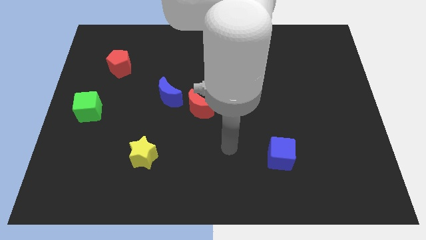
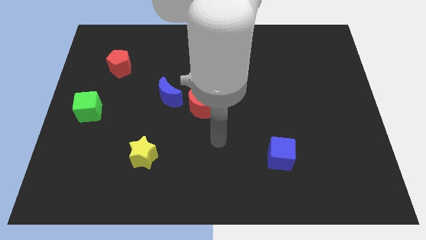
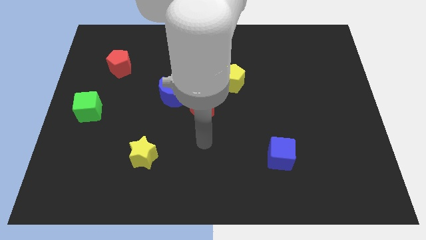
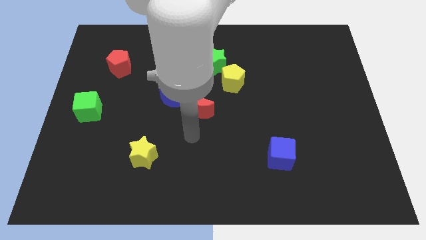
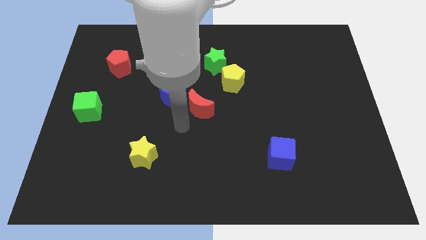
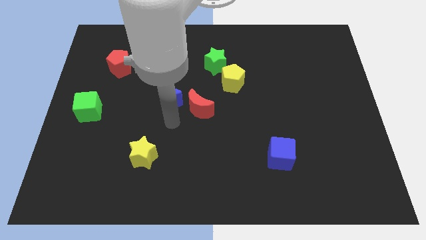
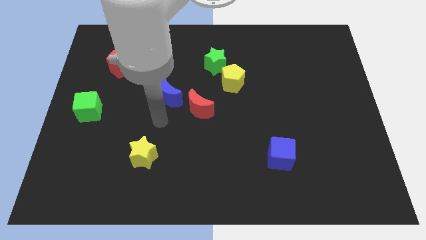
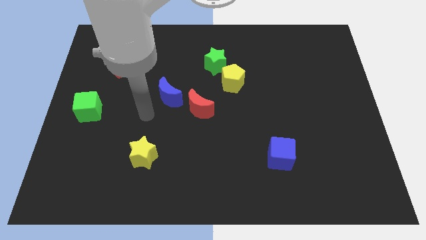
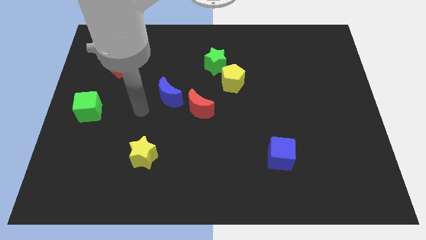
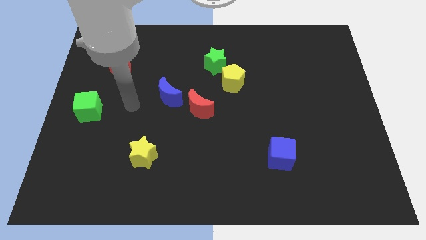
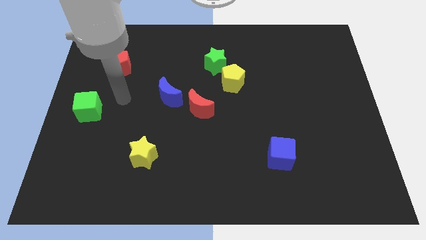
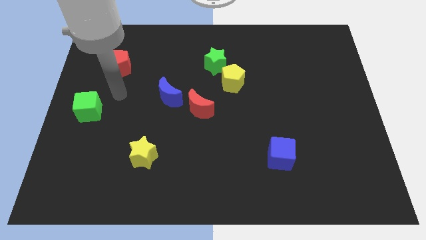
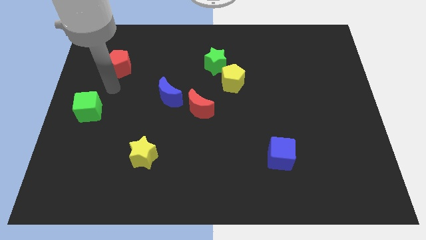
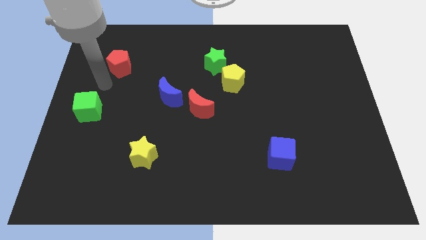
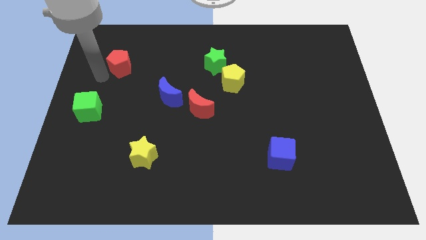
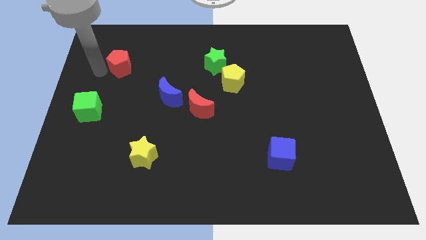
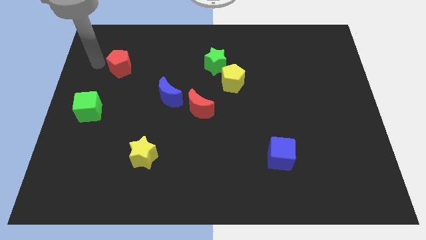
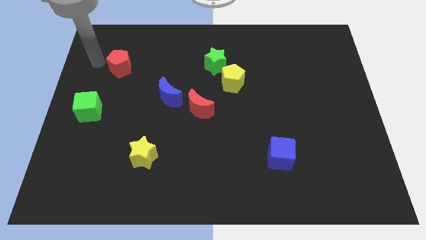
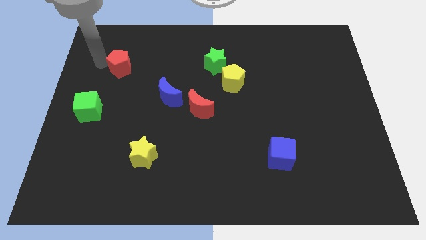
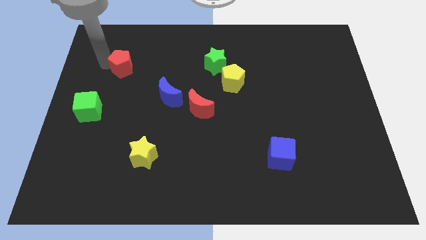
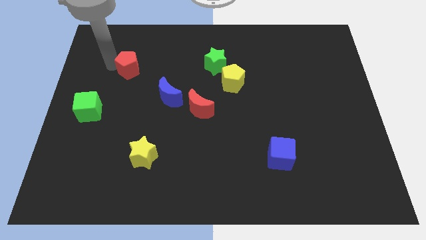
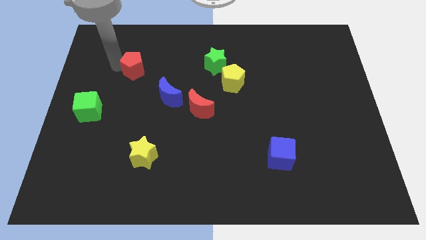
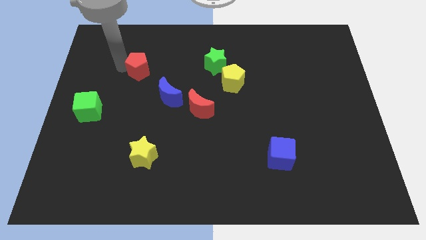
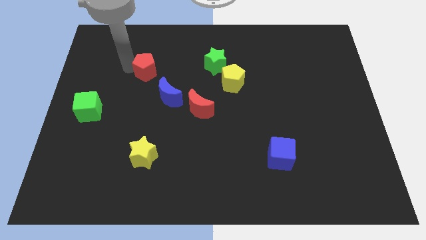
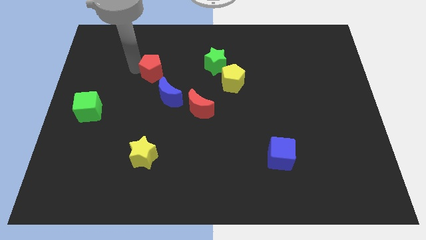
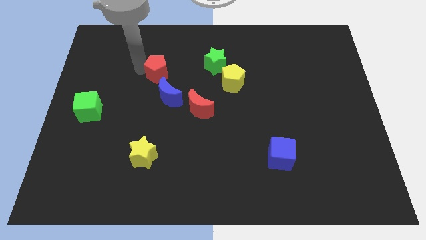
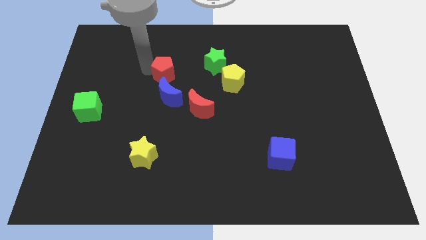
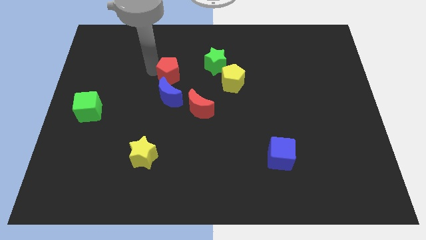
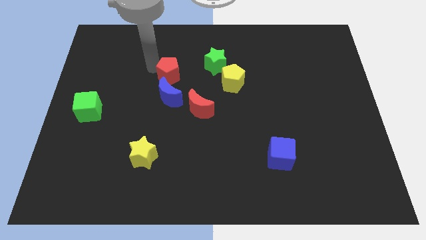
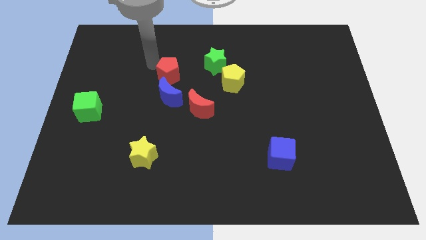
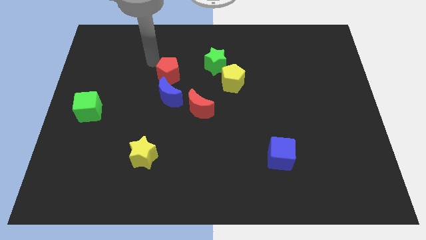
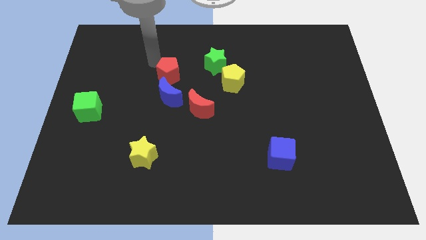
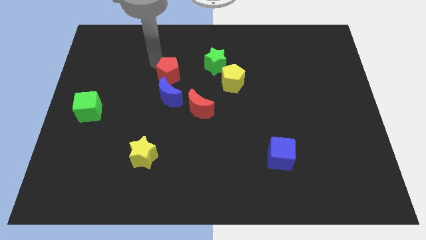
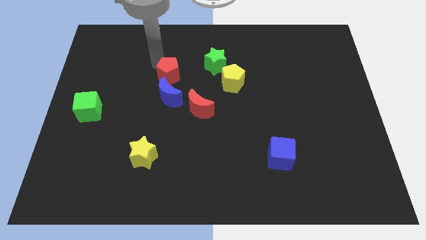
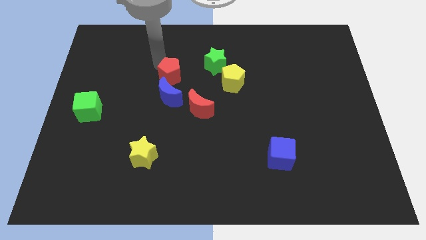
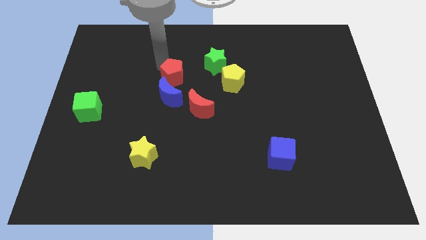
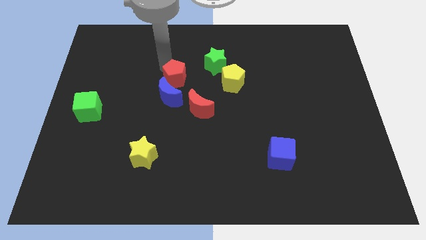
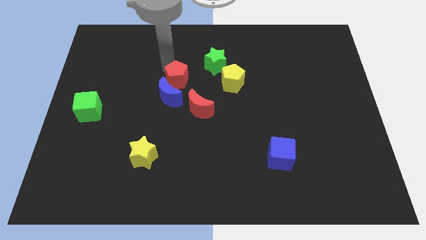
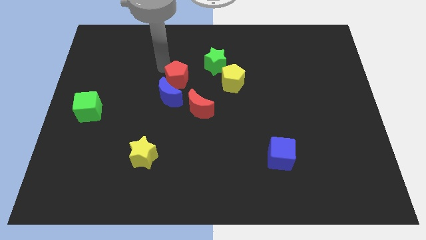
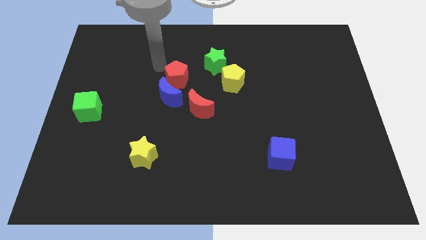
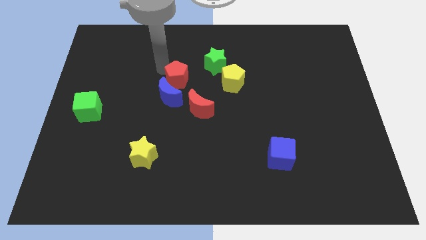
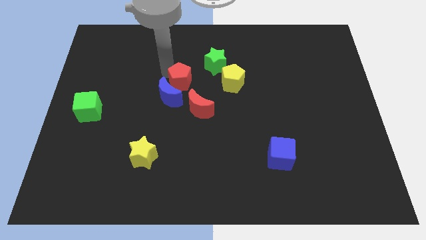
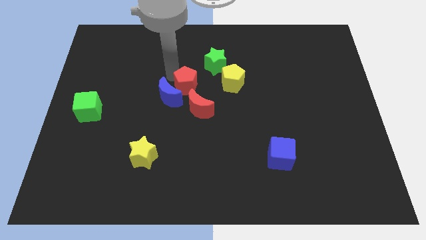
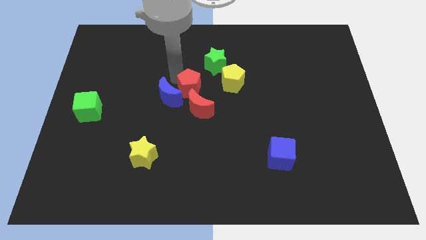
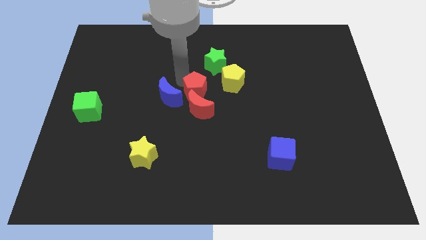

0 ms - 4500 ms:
slide the red pentagon to the red moon

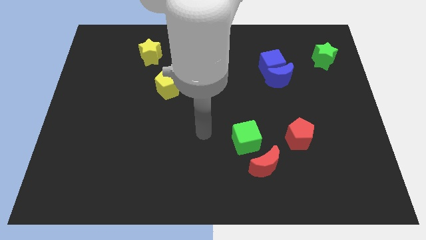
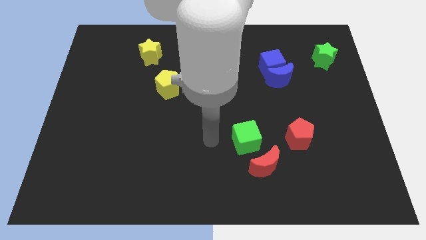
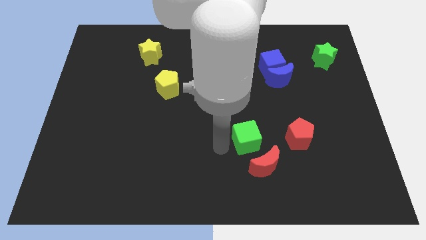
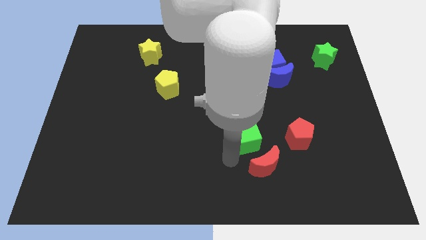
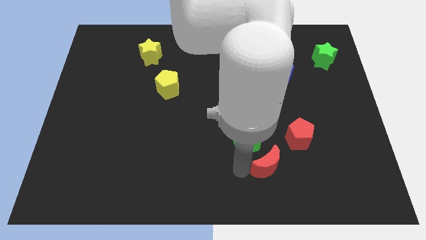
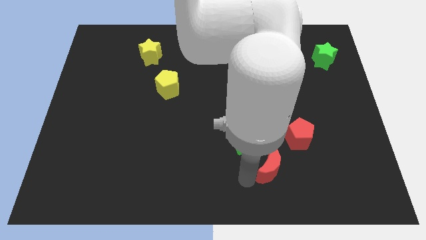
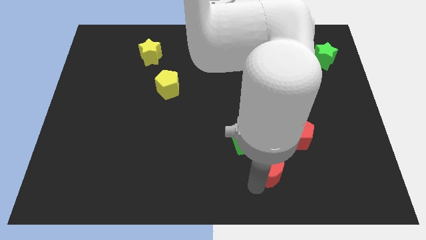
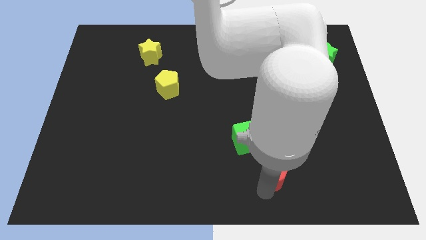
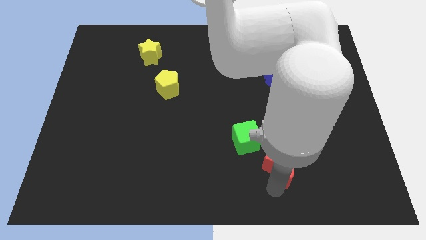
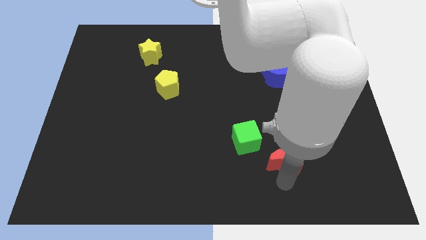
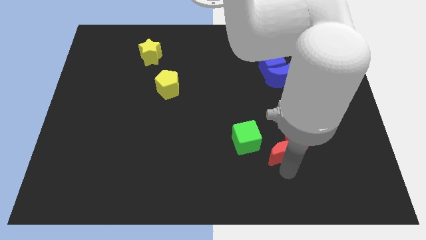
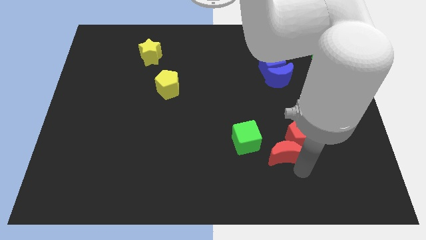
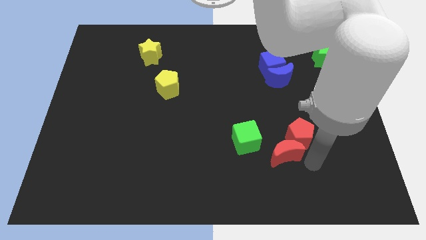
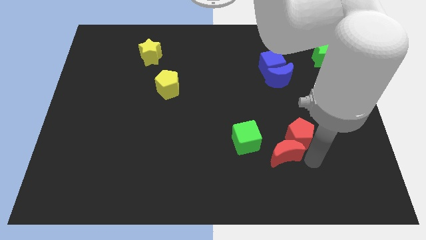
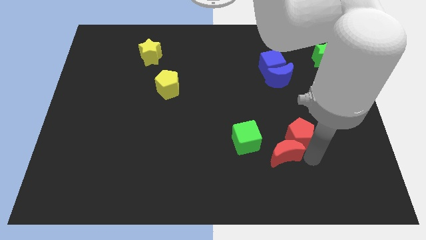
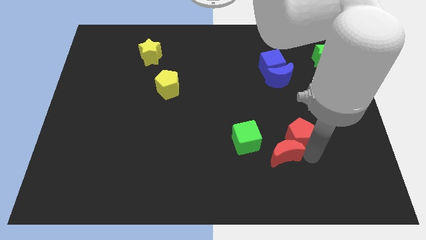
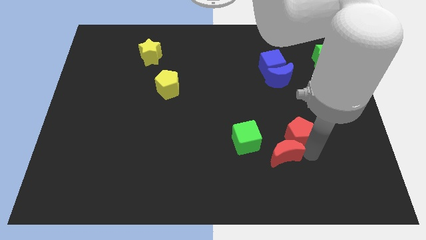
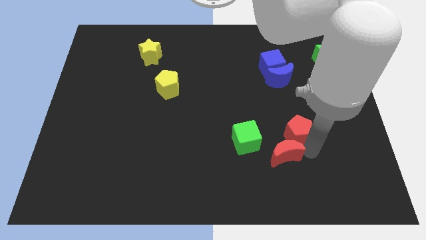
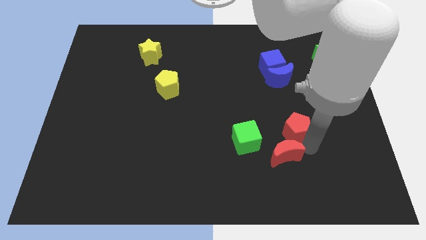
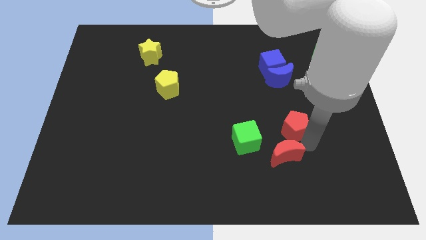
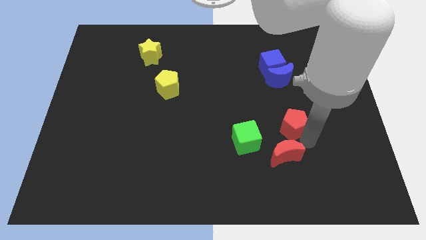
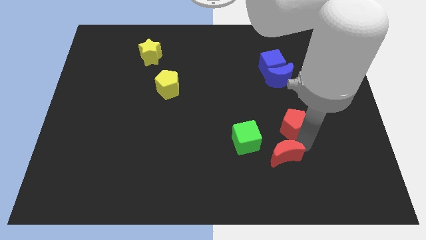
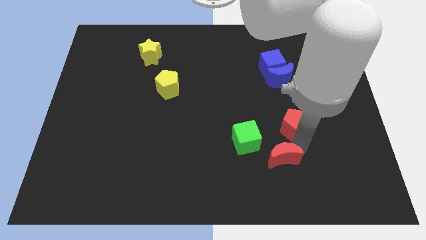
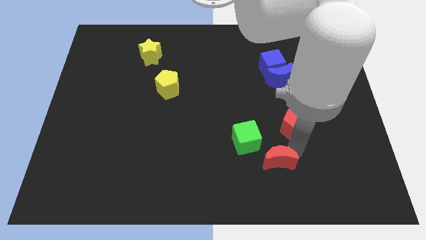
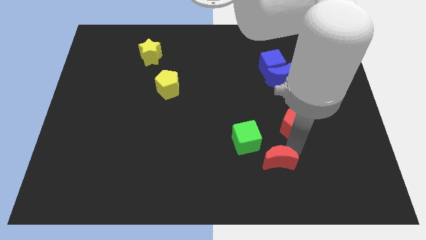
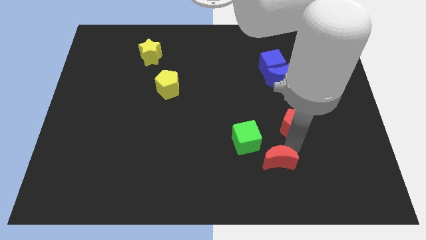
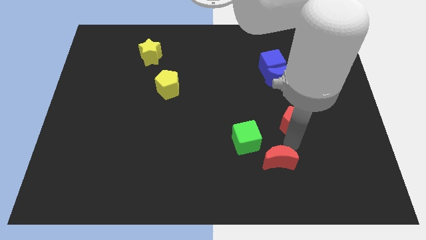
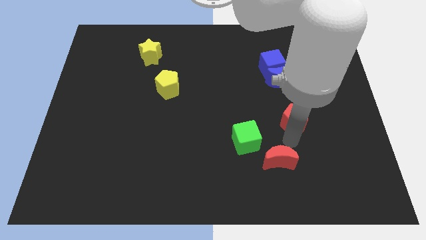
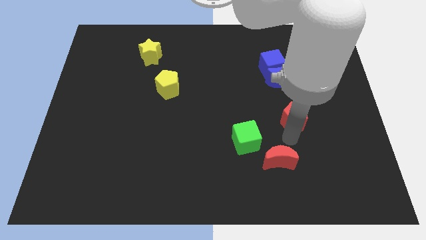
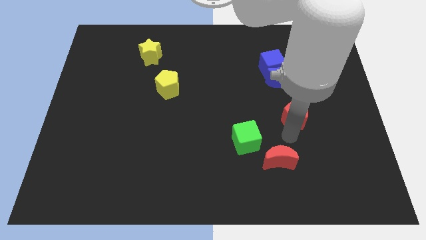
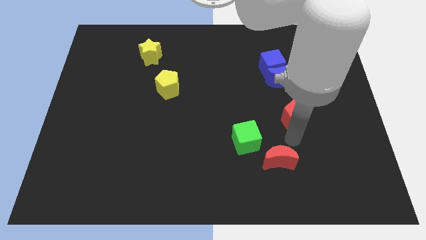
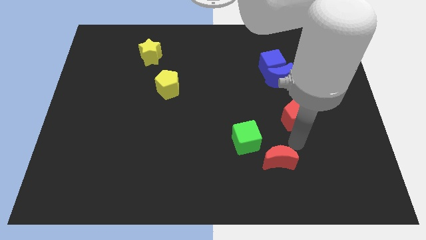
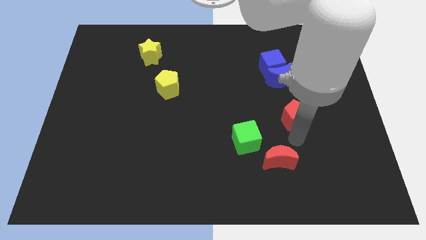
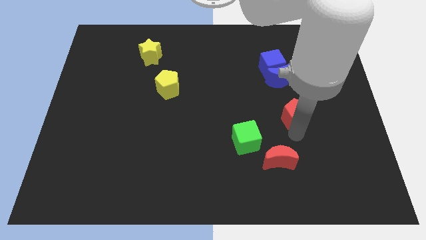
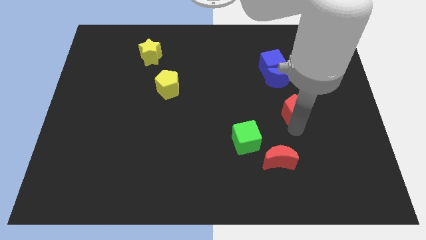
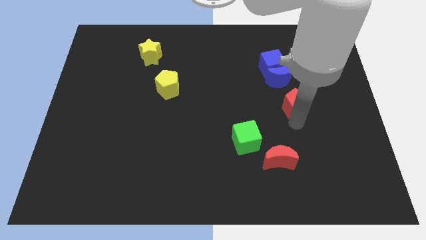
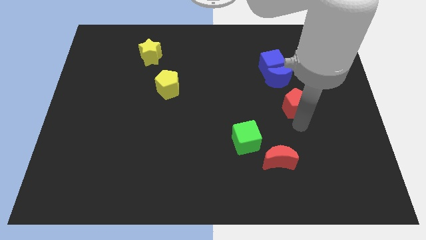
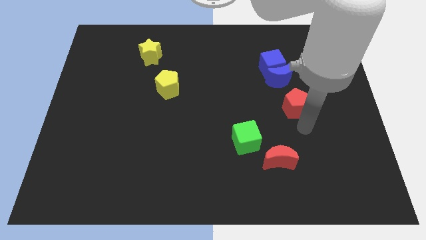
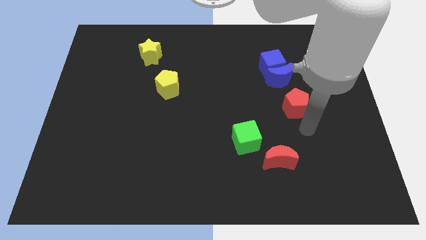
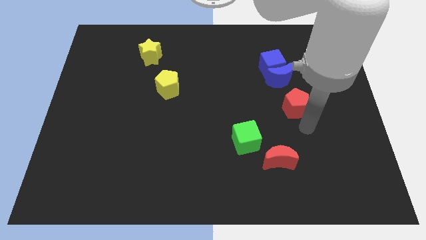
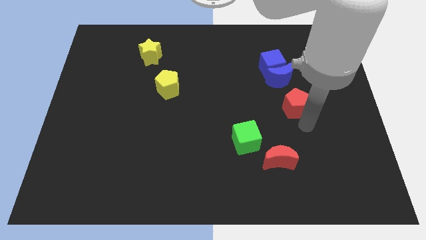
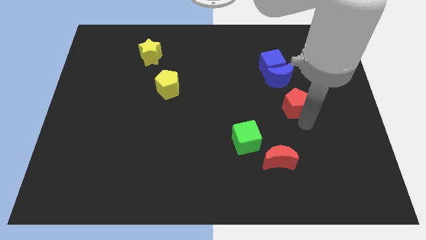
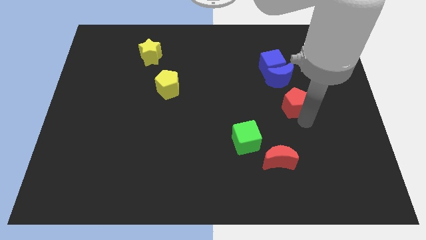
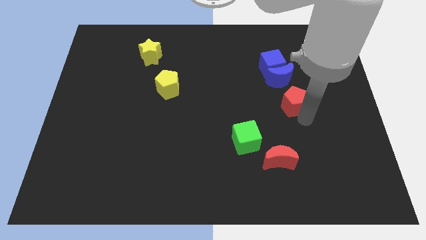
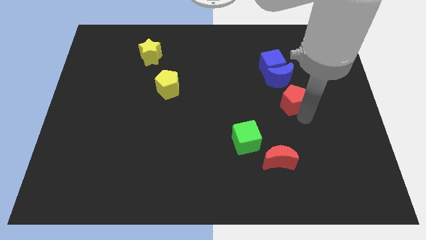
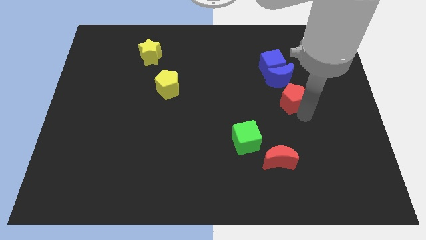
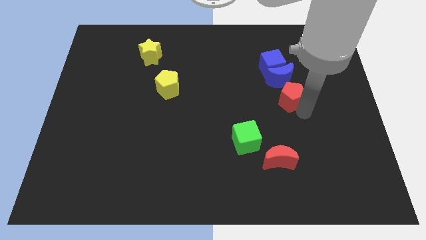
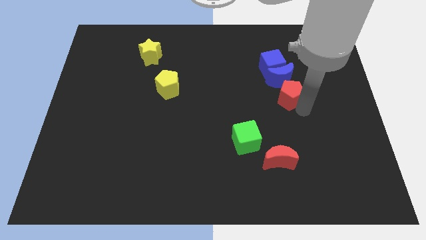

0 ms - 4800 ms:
move the red pentagon close to the blue moon
